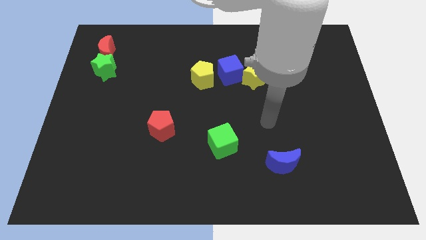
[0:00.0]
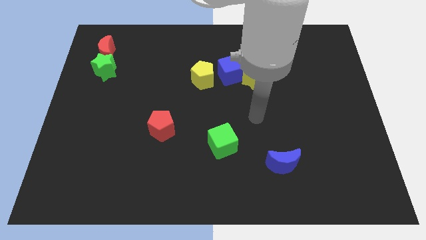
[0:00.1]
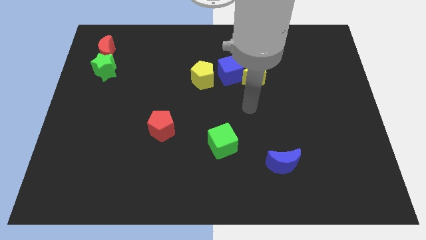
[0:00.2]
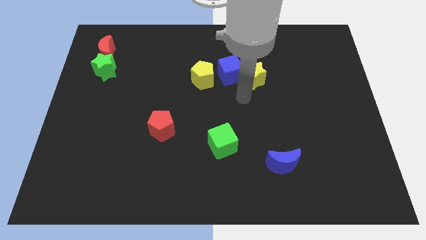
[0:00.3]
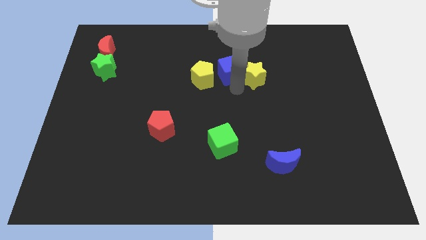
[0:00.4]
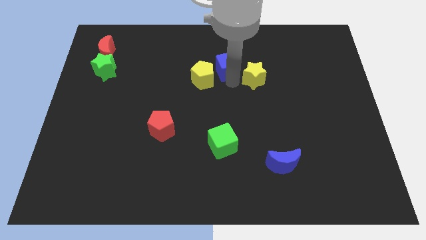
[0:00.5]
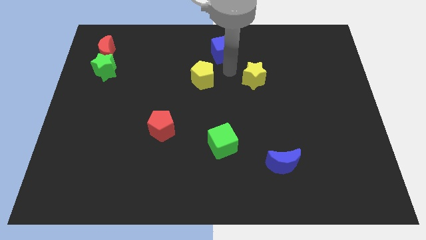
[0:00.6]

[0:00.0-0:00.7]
pull the yellow star apart from the blue cube

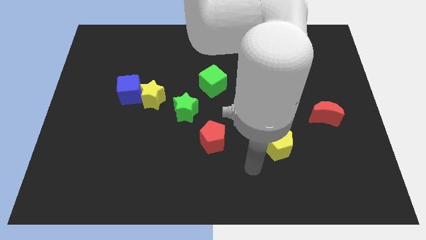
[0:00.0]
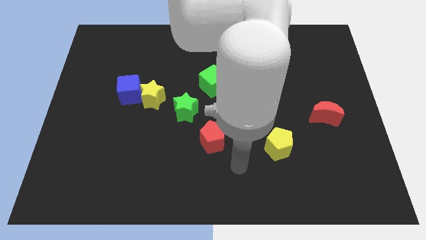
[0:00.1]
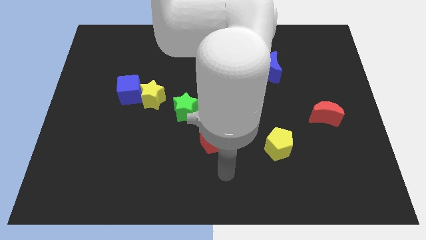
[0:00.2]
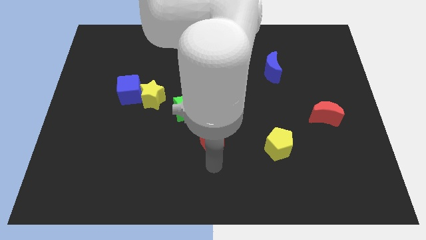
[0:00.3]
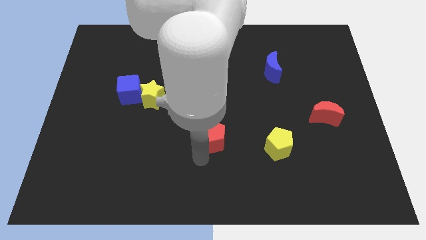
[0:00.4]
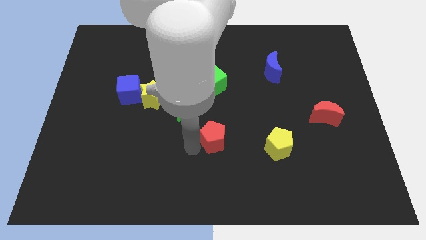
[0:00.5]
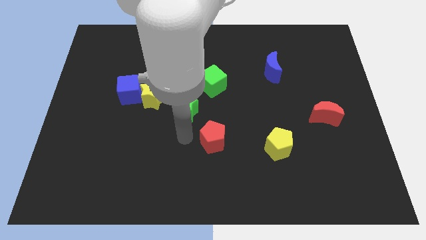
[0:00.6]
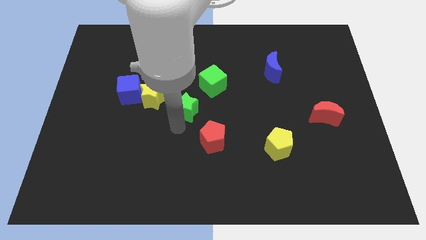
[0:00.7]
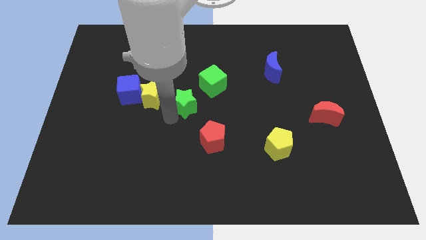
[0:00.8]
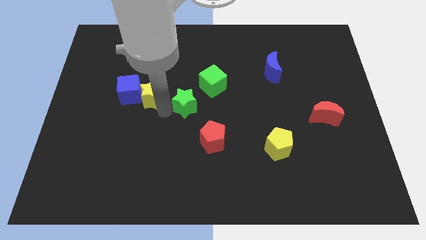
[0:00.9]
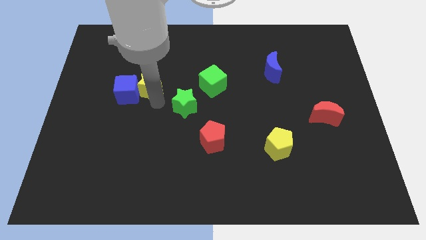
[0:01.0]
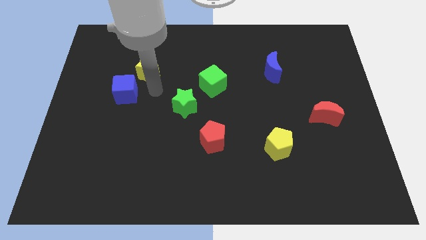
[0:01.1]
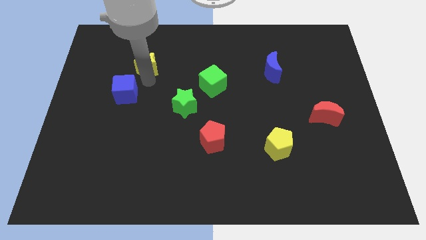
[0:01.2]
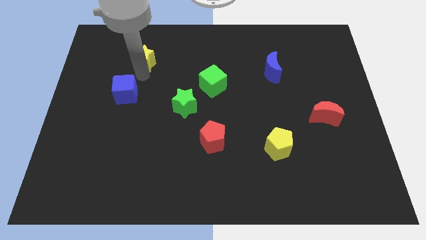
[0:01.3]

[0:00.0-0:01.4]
separate the blue cube from the yellow star

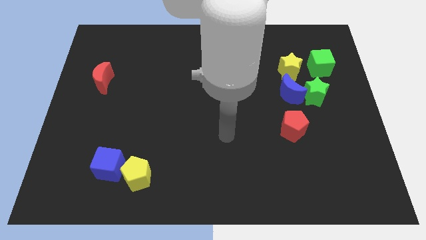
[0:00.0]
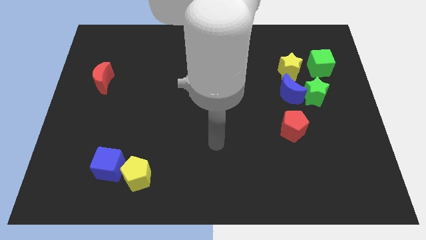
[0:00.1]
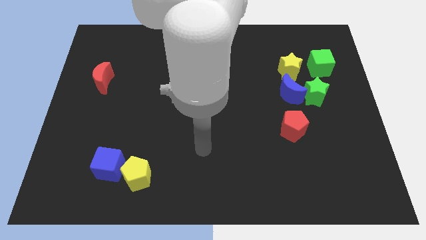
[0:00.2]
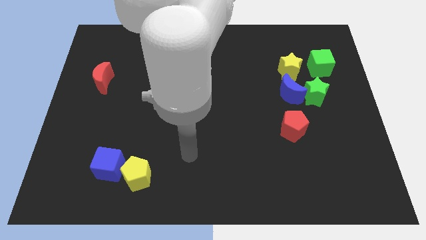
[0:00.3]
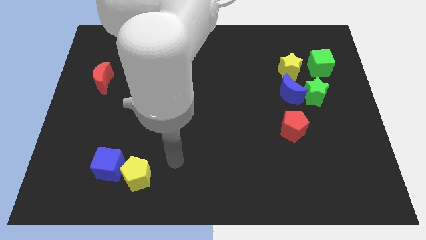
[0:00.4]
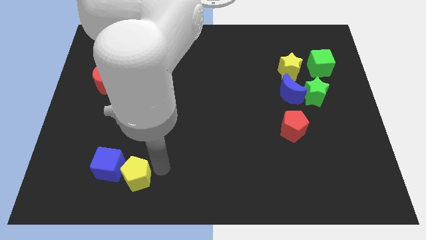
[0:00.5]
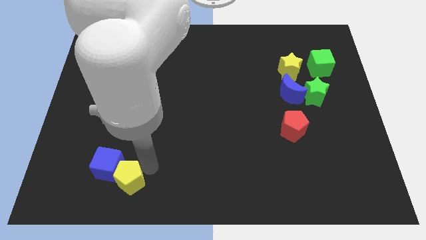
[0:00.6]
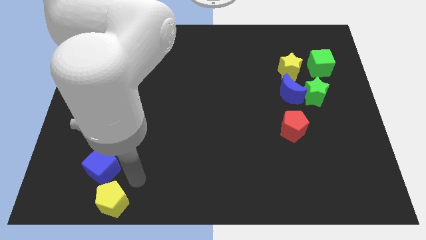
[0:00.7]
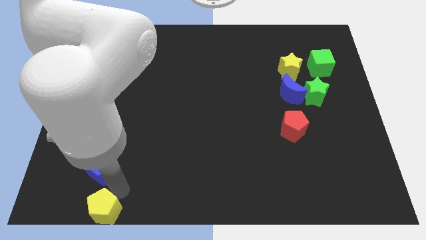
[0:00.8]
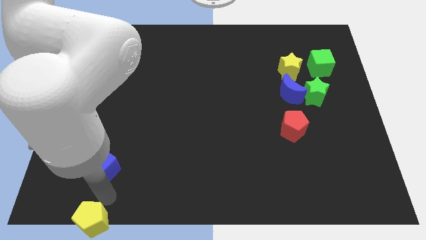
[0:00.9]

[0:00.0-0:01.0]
move the blue cube away from the yellow pentagon

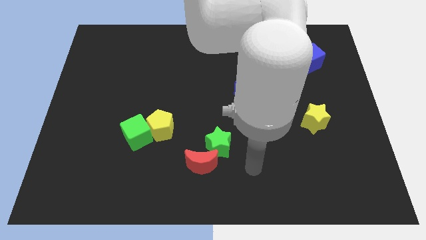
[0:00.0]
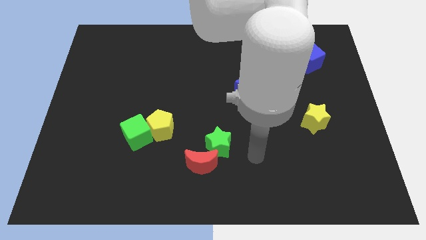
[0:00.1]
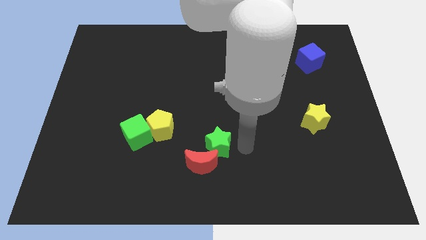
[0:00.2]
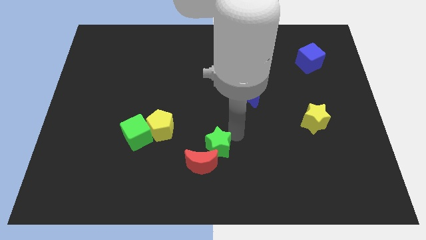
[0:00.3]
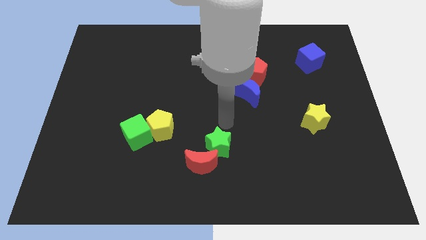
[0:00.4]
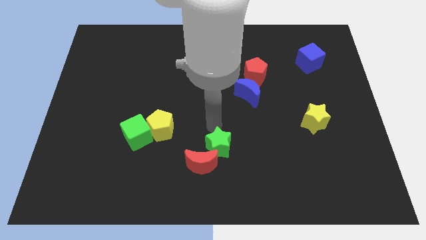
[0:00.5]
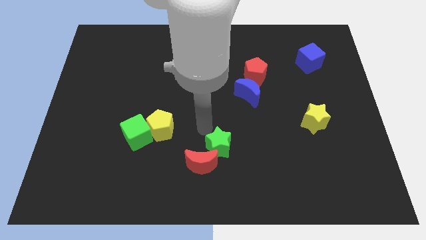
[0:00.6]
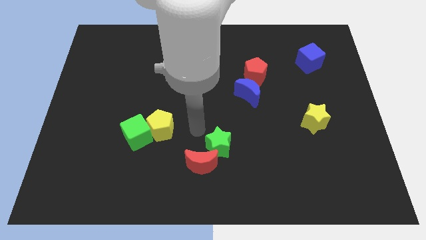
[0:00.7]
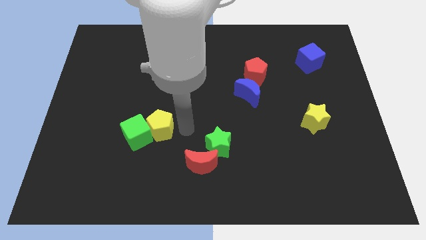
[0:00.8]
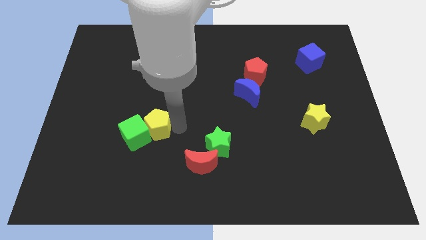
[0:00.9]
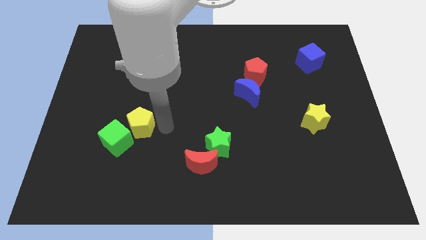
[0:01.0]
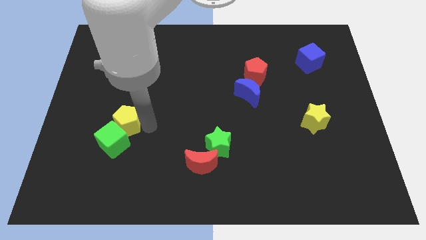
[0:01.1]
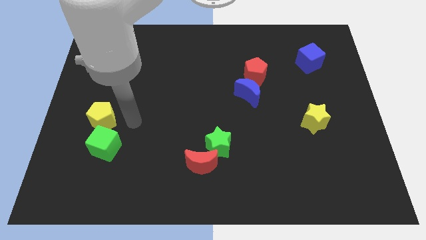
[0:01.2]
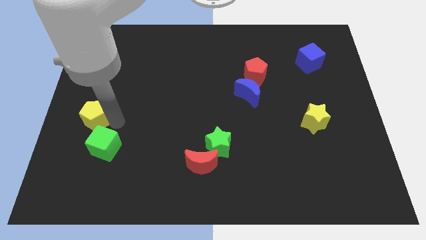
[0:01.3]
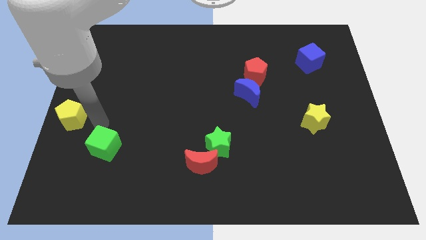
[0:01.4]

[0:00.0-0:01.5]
separate the green cube from the yellow pentagon

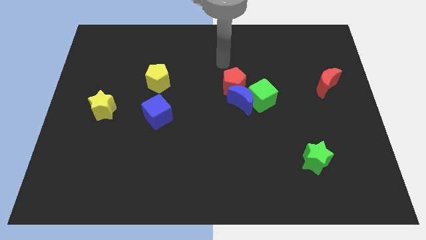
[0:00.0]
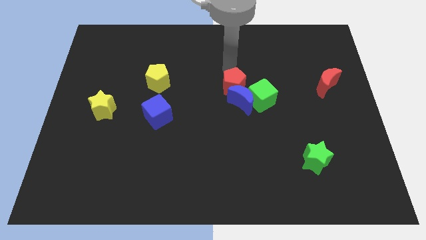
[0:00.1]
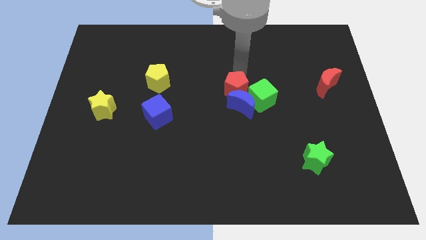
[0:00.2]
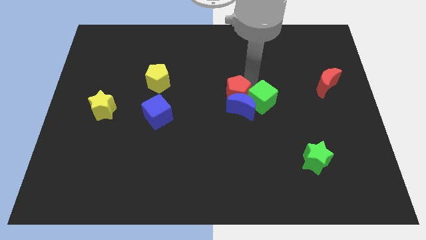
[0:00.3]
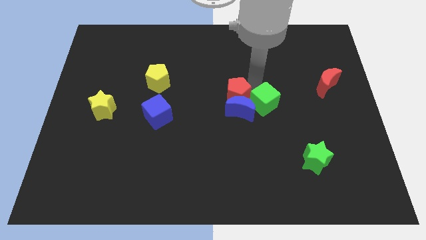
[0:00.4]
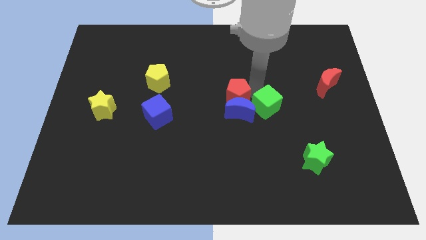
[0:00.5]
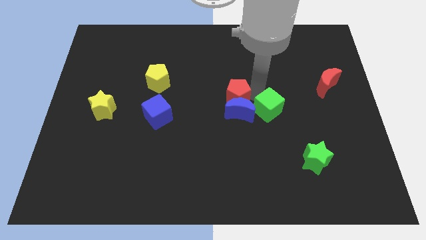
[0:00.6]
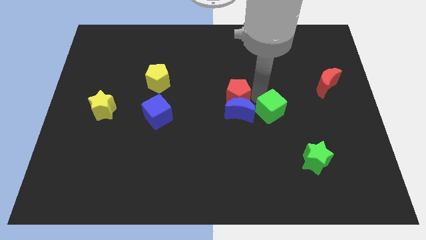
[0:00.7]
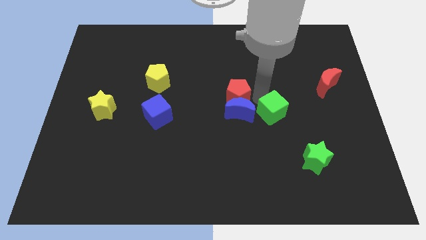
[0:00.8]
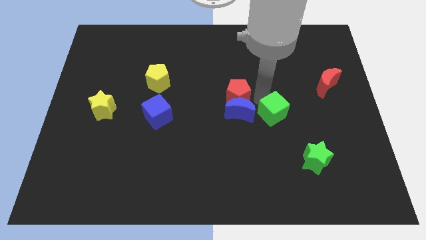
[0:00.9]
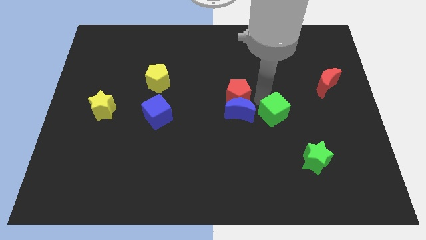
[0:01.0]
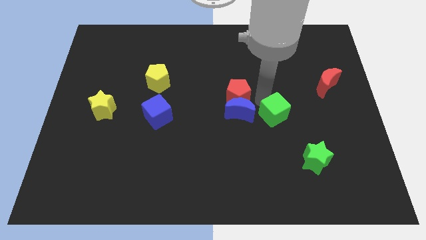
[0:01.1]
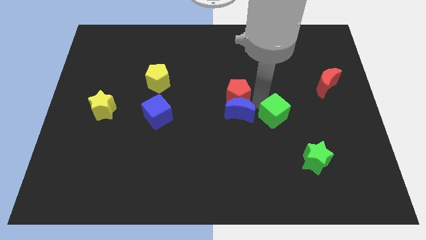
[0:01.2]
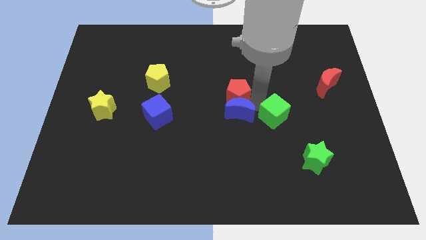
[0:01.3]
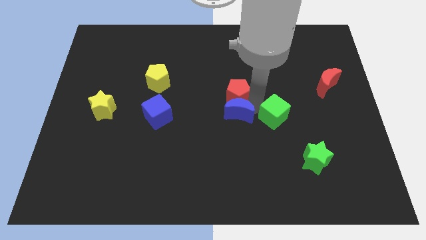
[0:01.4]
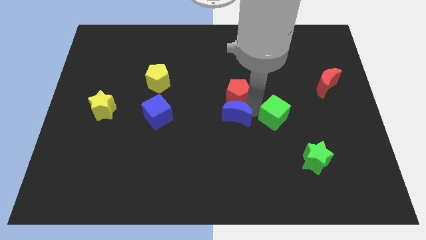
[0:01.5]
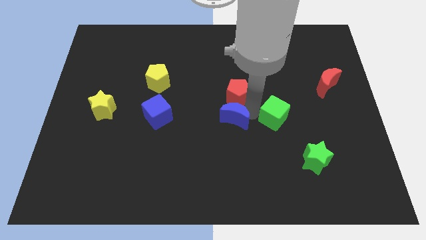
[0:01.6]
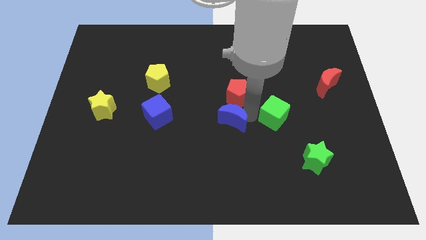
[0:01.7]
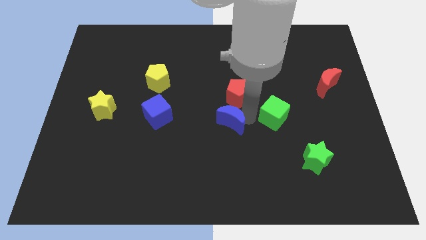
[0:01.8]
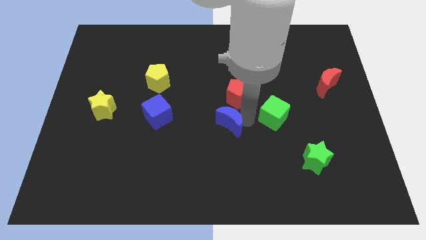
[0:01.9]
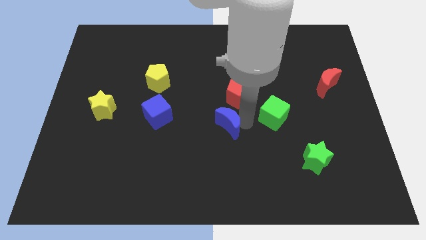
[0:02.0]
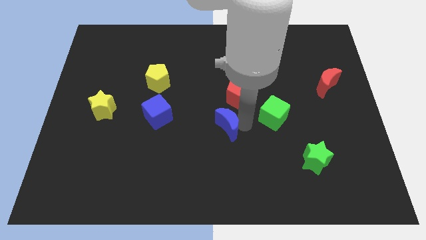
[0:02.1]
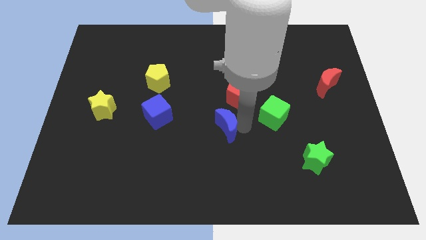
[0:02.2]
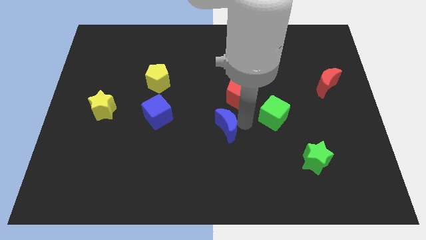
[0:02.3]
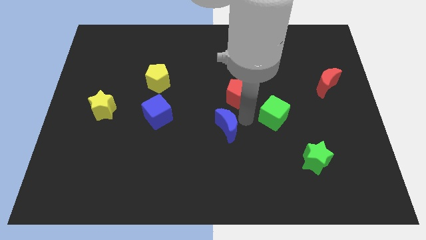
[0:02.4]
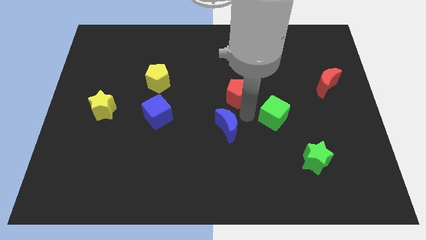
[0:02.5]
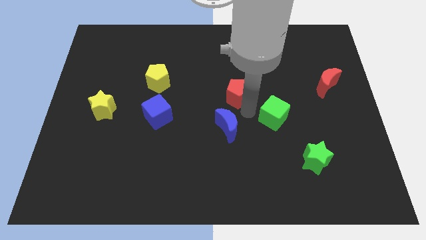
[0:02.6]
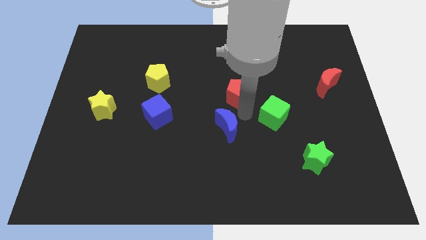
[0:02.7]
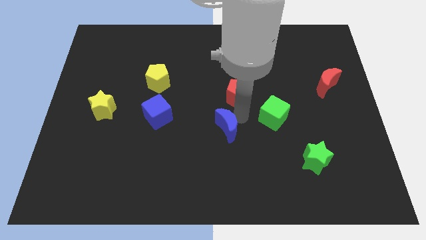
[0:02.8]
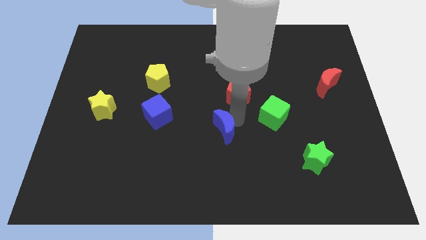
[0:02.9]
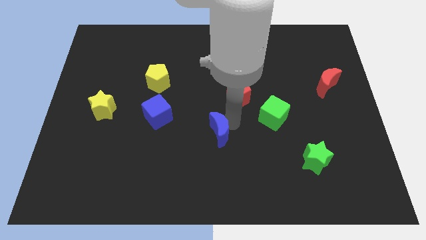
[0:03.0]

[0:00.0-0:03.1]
pull the blue moon apart from the green cube and red pentagon

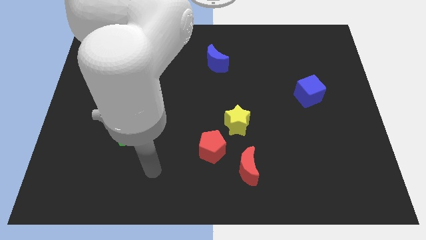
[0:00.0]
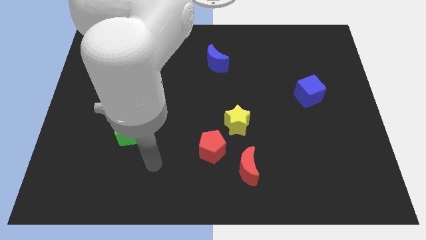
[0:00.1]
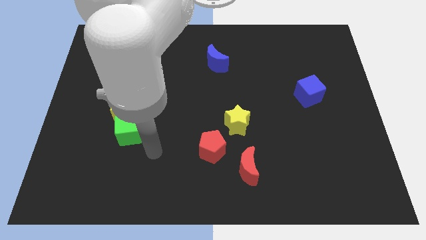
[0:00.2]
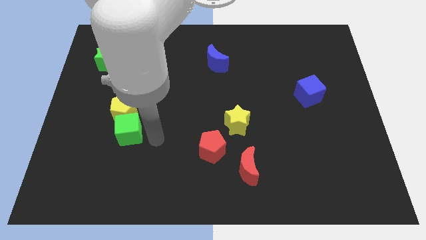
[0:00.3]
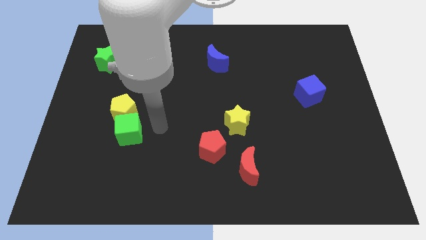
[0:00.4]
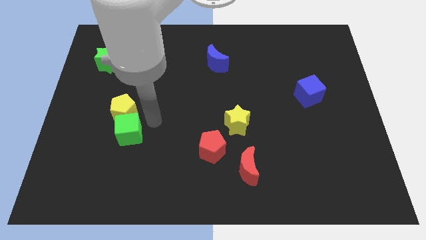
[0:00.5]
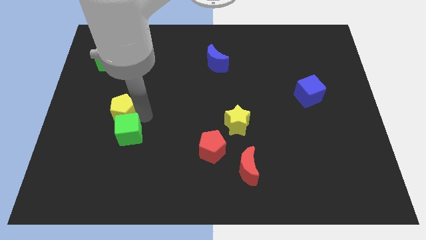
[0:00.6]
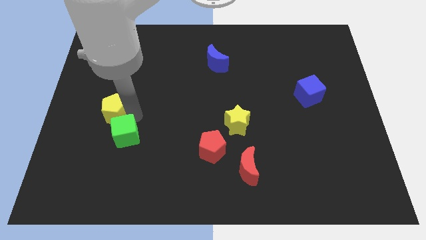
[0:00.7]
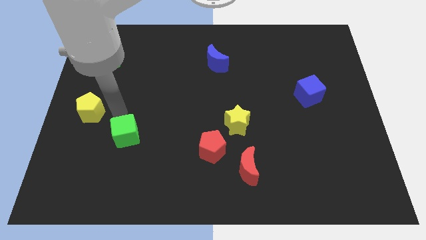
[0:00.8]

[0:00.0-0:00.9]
pull the green cube apart from the yellow pentagon

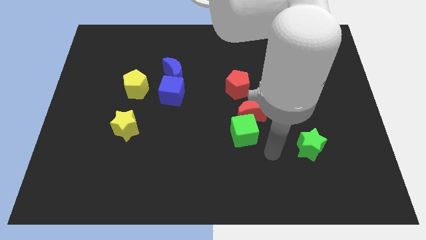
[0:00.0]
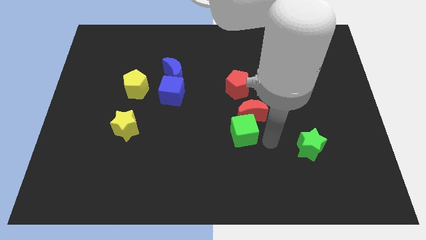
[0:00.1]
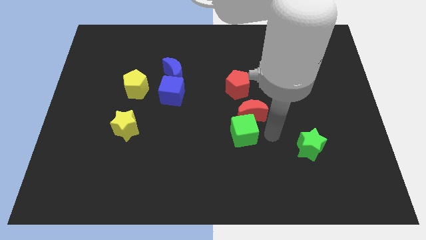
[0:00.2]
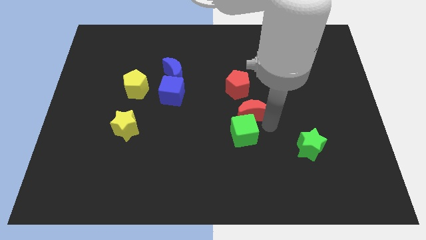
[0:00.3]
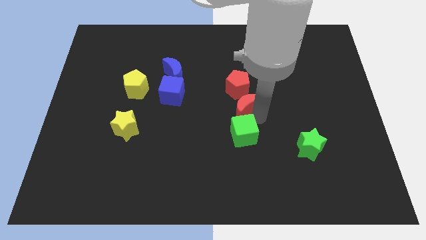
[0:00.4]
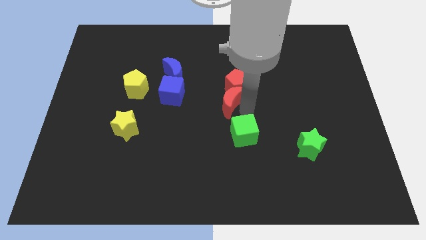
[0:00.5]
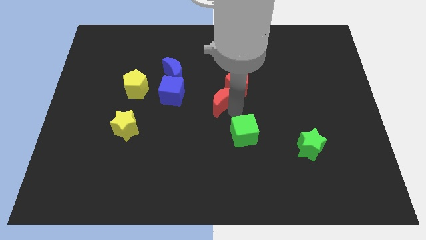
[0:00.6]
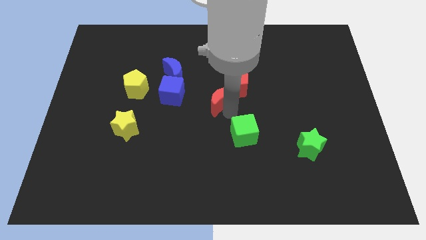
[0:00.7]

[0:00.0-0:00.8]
move the green cube away from the red moon
